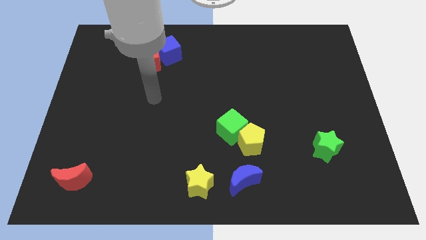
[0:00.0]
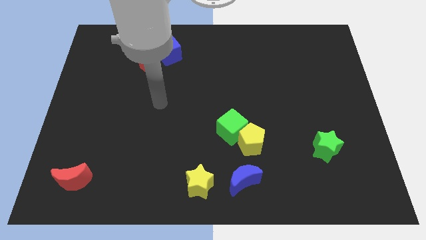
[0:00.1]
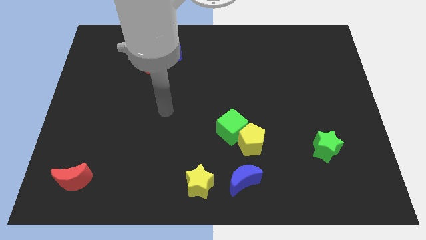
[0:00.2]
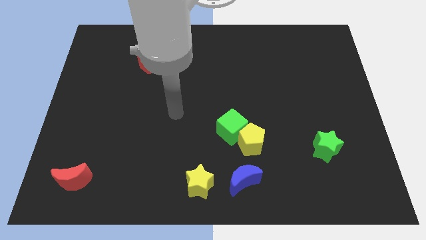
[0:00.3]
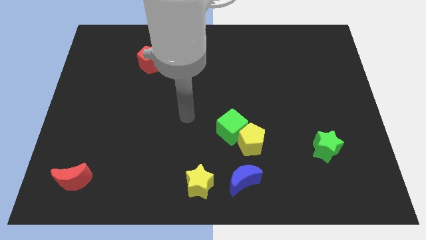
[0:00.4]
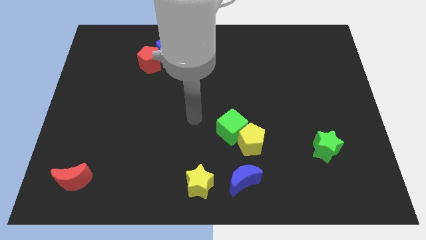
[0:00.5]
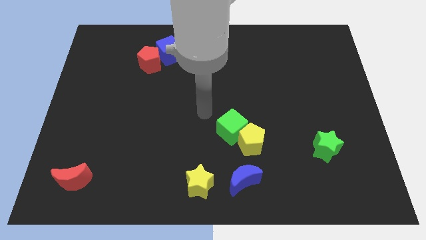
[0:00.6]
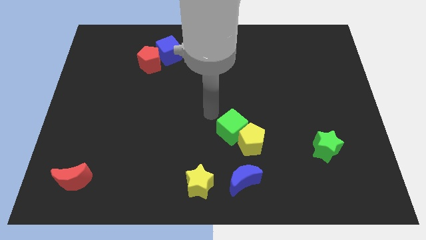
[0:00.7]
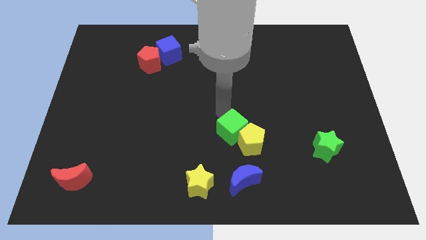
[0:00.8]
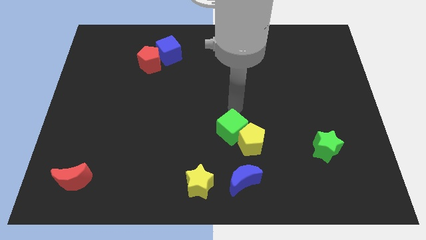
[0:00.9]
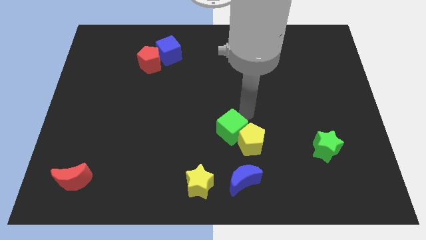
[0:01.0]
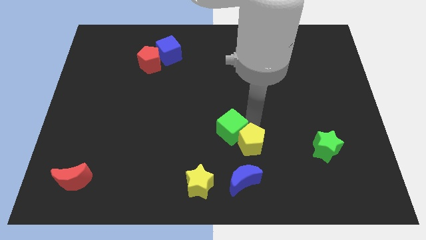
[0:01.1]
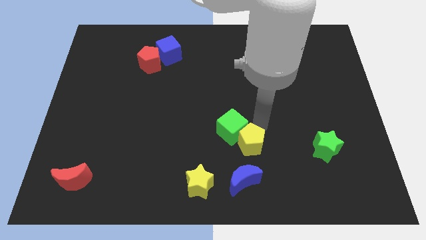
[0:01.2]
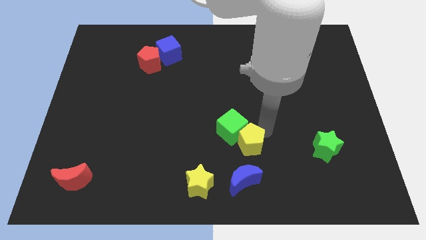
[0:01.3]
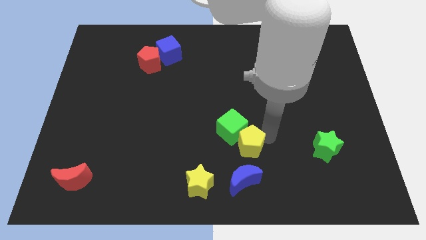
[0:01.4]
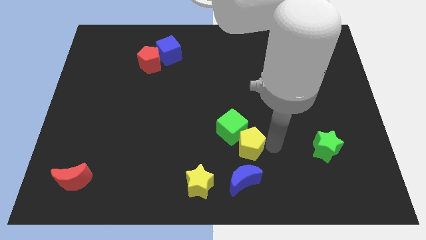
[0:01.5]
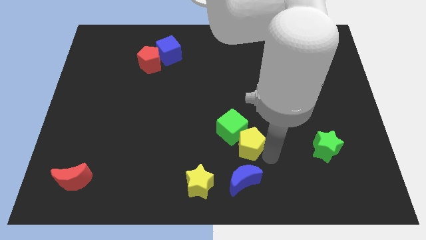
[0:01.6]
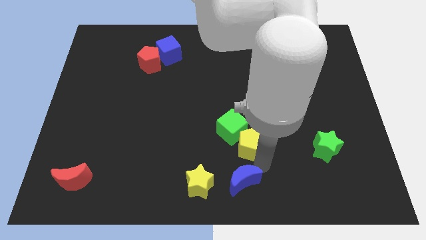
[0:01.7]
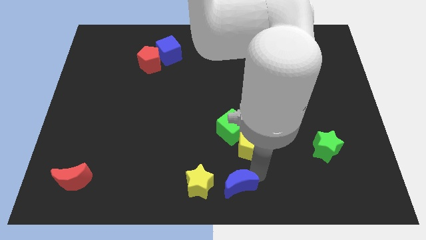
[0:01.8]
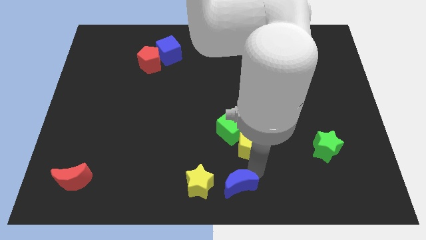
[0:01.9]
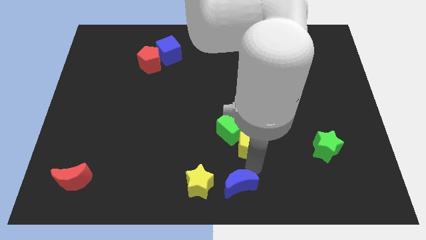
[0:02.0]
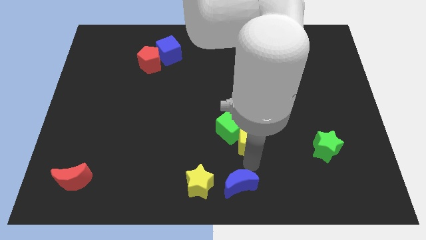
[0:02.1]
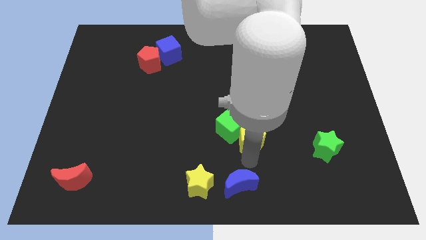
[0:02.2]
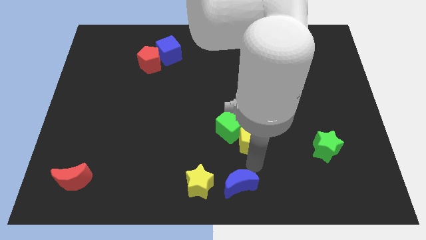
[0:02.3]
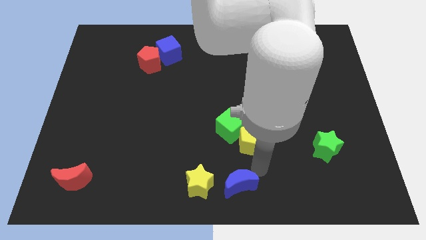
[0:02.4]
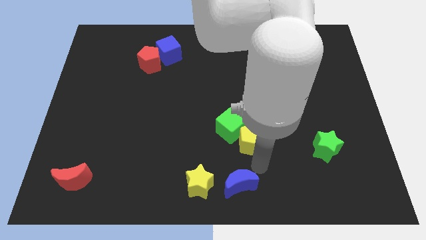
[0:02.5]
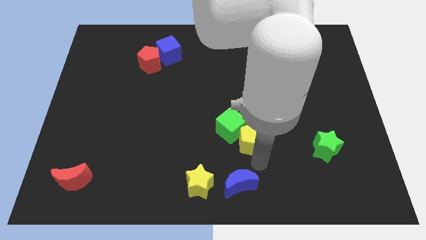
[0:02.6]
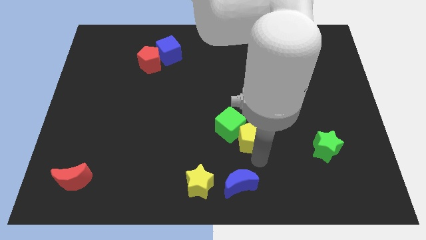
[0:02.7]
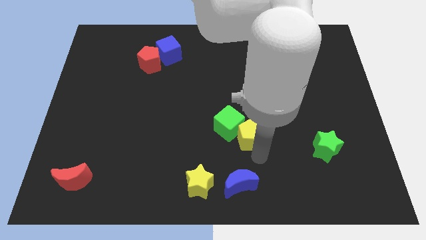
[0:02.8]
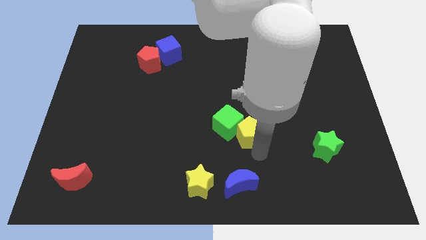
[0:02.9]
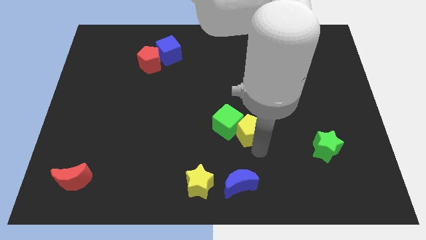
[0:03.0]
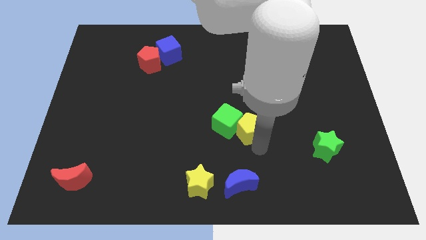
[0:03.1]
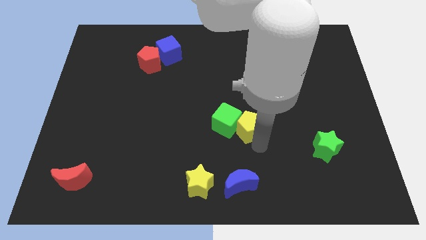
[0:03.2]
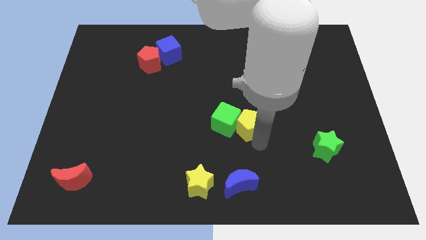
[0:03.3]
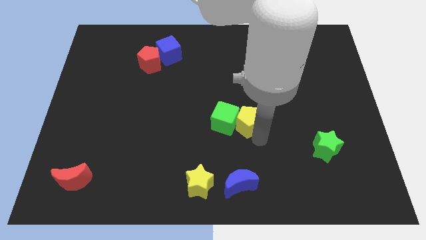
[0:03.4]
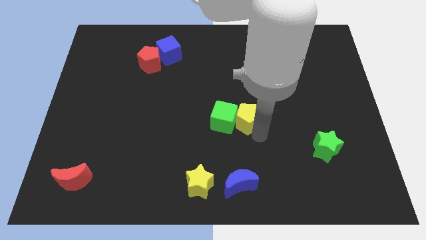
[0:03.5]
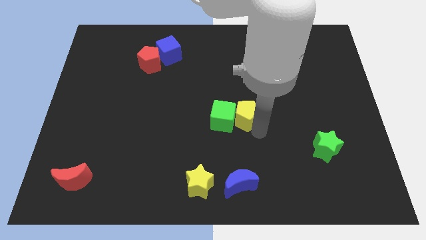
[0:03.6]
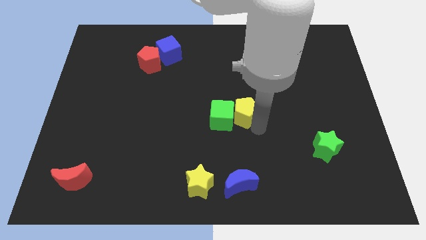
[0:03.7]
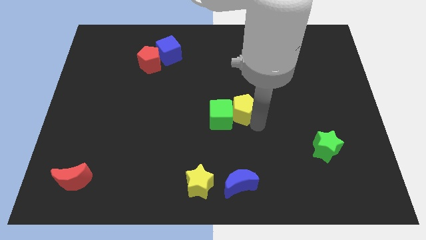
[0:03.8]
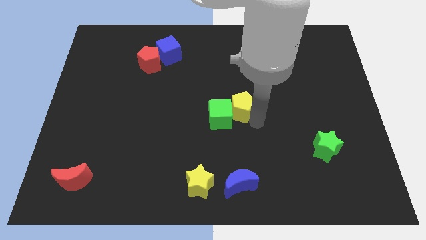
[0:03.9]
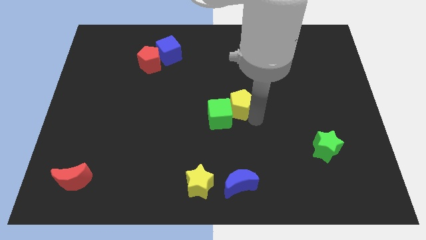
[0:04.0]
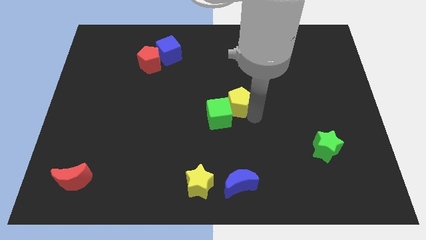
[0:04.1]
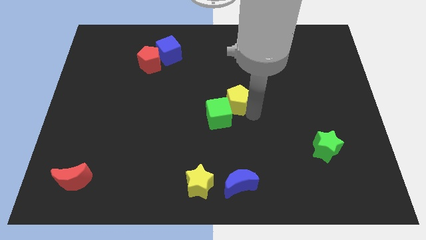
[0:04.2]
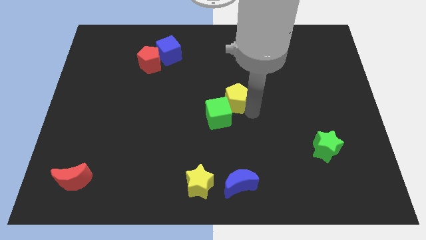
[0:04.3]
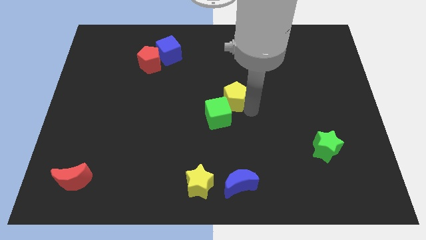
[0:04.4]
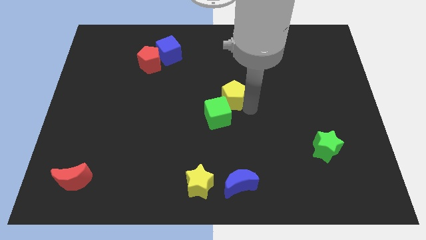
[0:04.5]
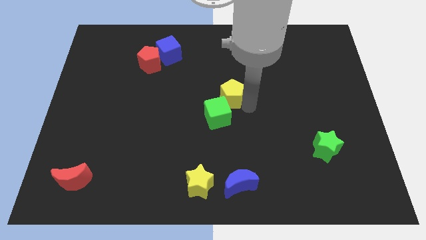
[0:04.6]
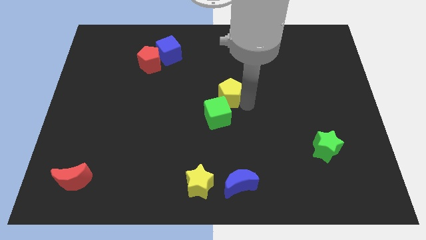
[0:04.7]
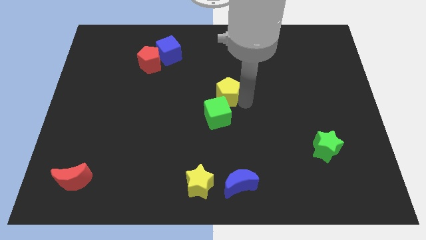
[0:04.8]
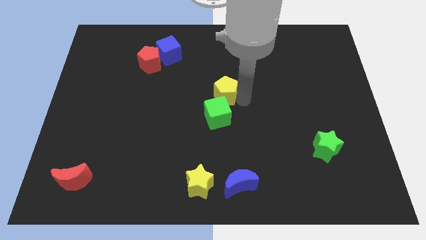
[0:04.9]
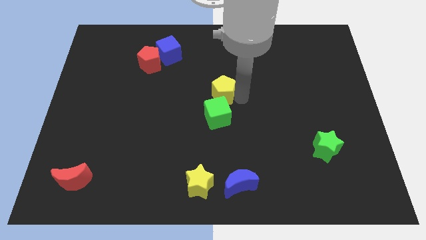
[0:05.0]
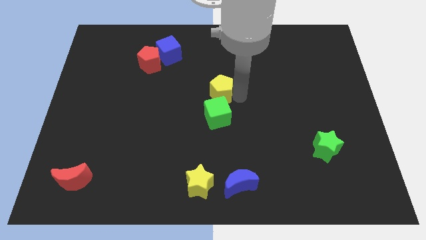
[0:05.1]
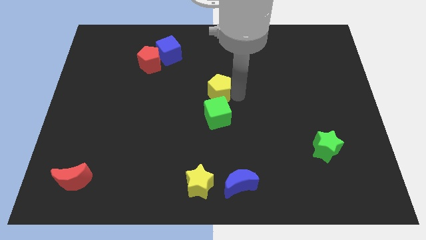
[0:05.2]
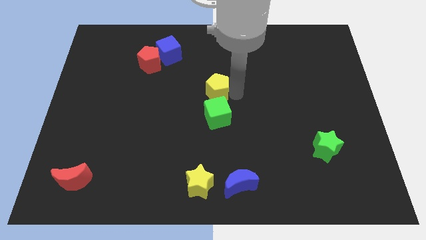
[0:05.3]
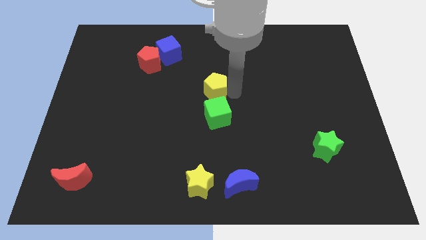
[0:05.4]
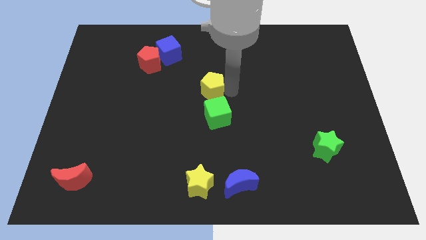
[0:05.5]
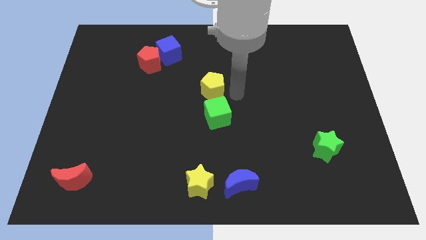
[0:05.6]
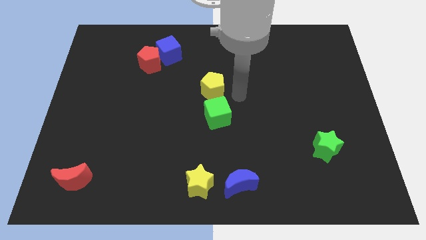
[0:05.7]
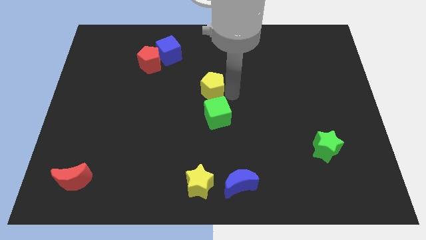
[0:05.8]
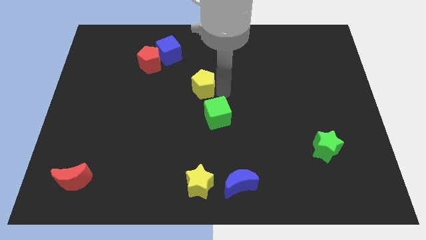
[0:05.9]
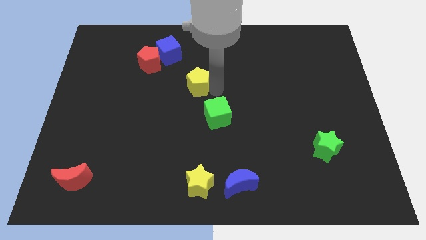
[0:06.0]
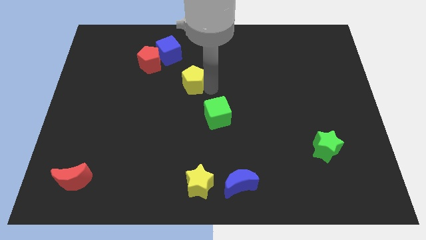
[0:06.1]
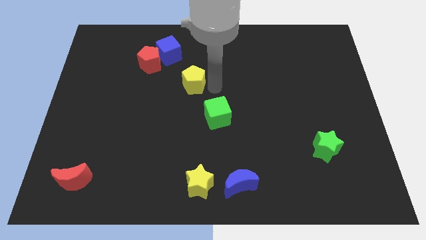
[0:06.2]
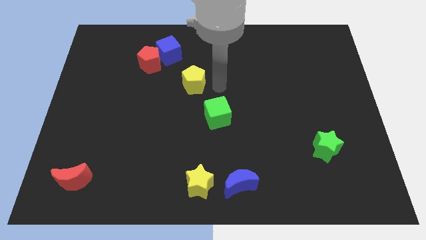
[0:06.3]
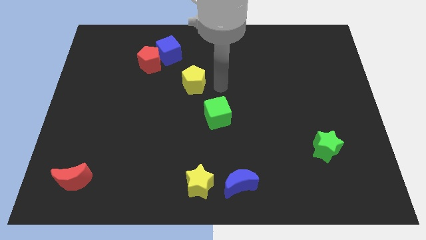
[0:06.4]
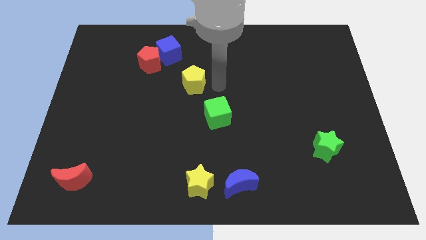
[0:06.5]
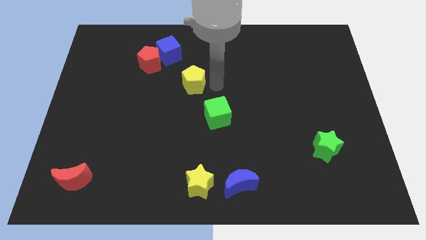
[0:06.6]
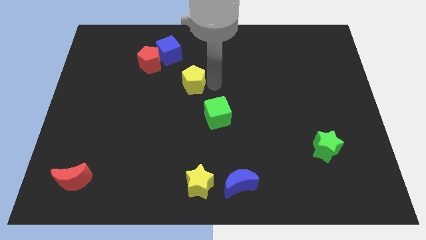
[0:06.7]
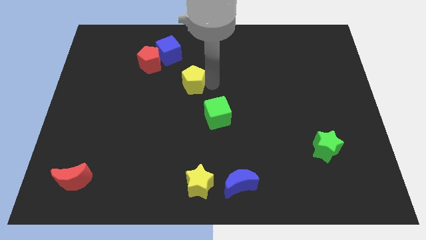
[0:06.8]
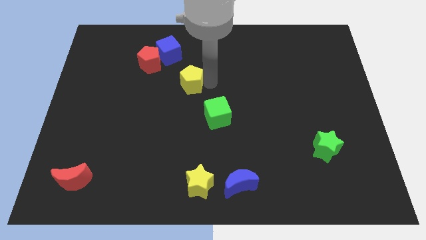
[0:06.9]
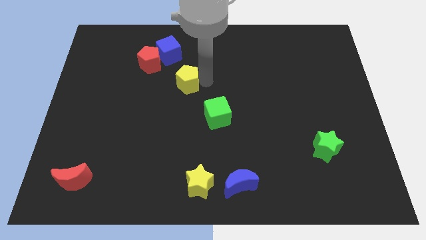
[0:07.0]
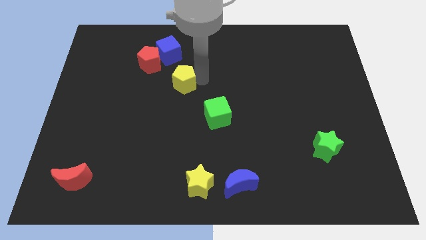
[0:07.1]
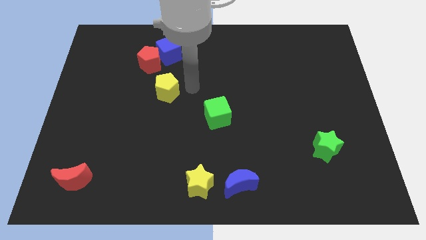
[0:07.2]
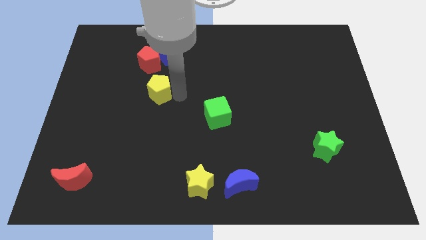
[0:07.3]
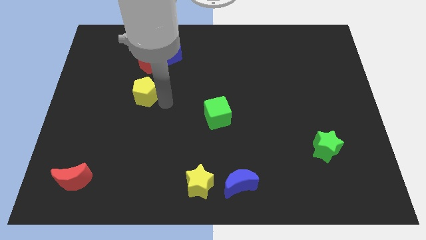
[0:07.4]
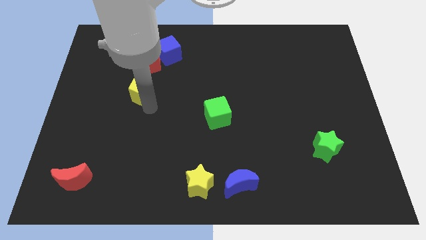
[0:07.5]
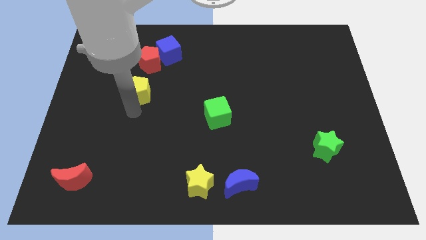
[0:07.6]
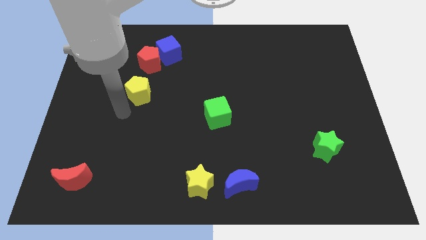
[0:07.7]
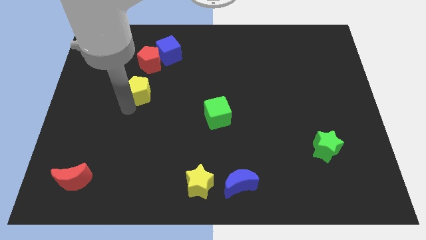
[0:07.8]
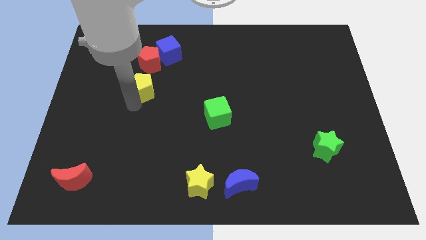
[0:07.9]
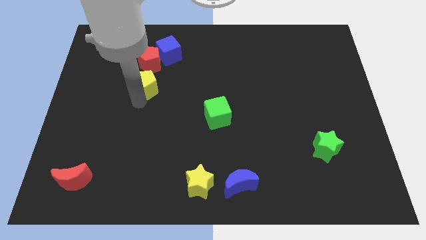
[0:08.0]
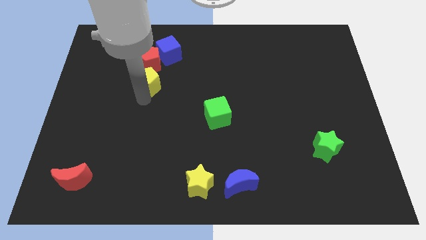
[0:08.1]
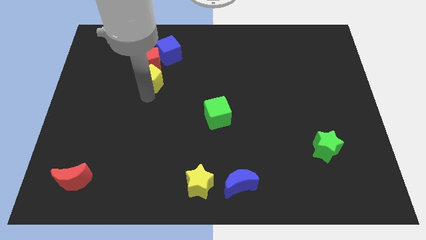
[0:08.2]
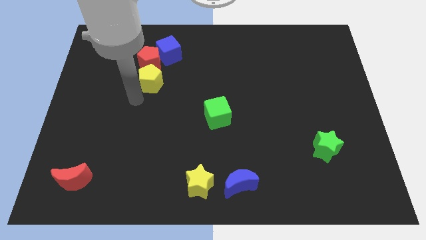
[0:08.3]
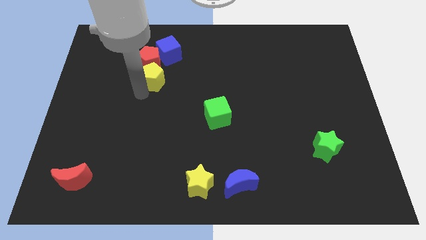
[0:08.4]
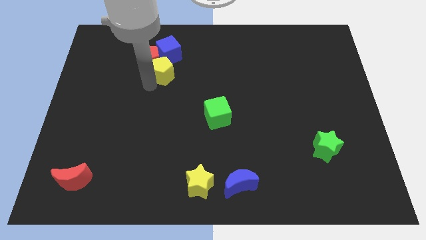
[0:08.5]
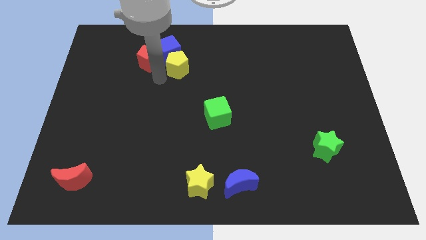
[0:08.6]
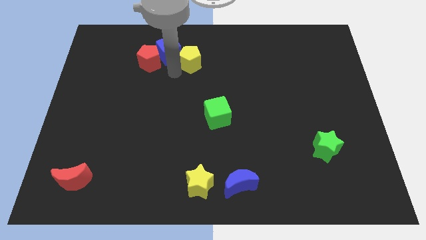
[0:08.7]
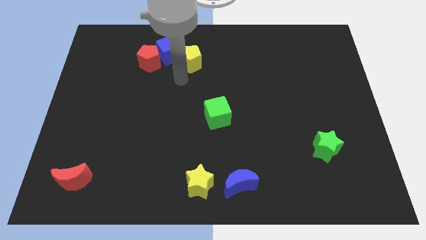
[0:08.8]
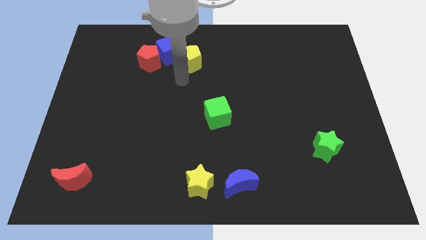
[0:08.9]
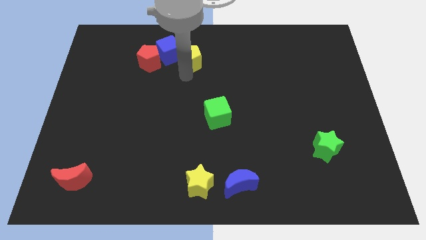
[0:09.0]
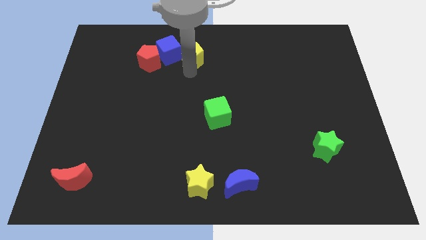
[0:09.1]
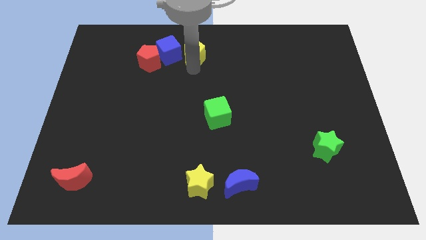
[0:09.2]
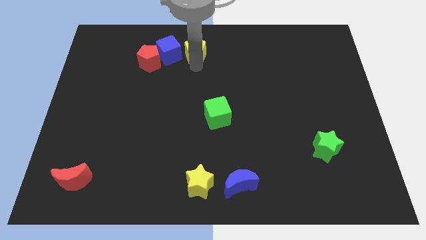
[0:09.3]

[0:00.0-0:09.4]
put the yellow pentagon to the towards your base
